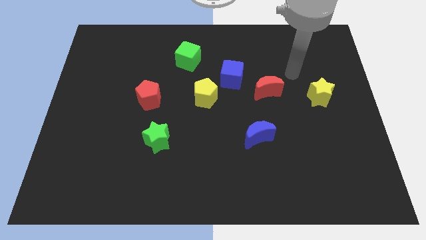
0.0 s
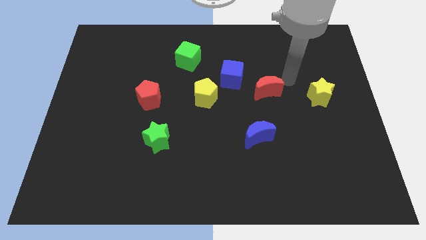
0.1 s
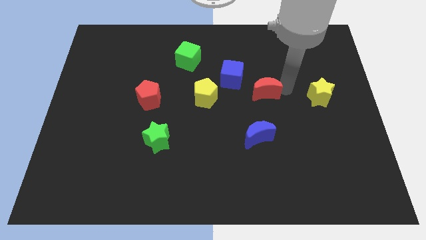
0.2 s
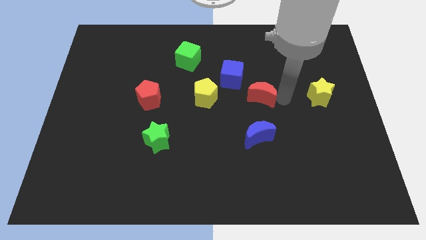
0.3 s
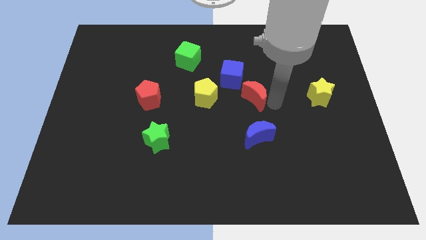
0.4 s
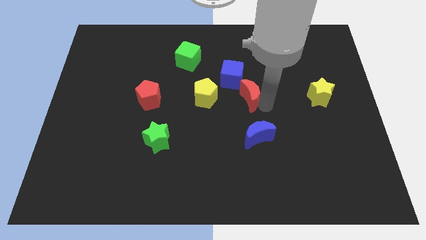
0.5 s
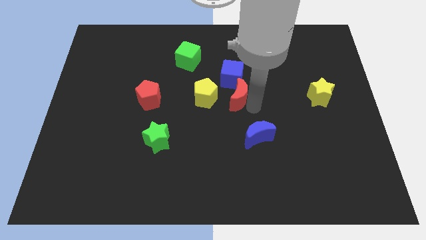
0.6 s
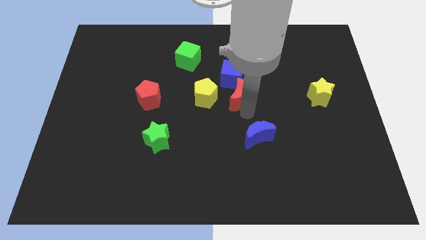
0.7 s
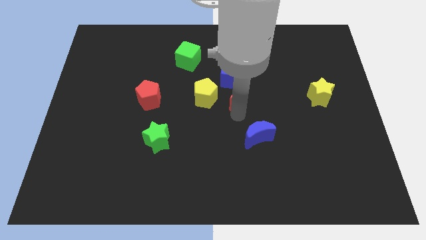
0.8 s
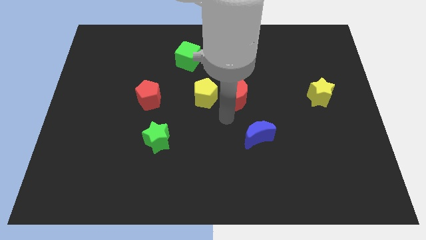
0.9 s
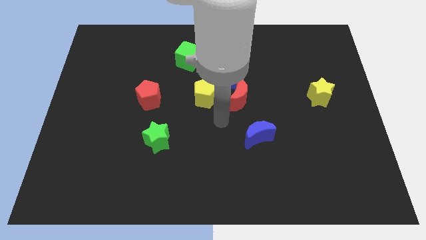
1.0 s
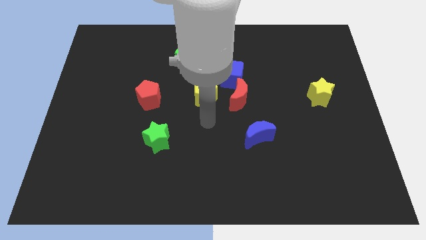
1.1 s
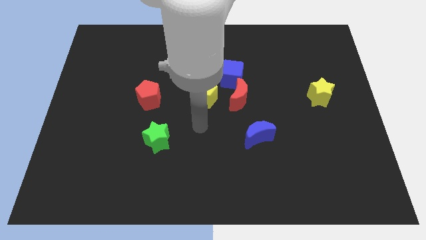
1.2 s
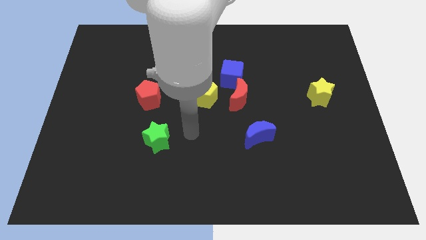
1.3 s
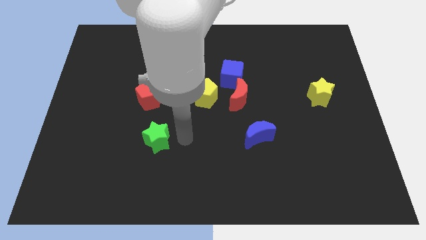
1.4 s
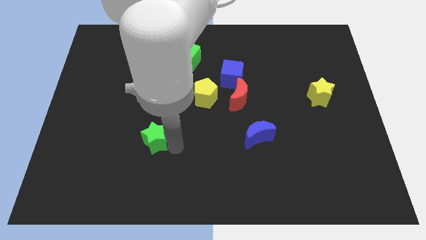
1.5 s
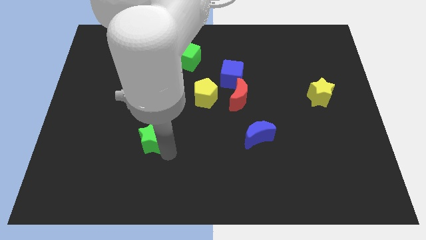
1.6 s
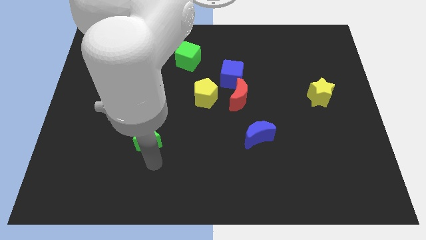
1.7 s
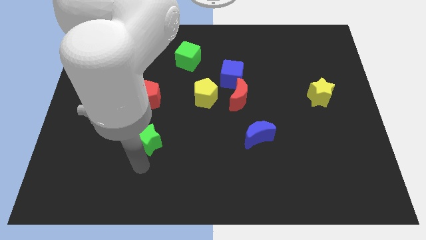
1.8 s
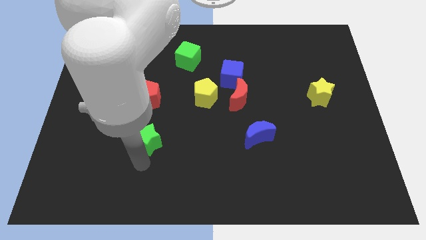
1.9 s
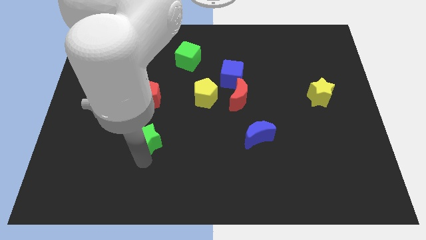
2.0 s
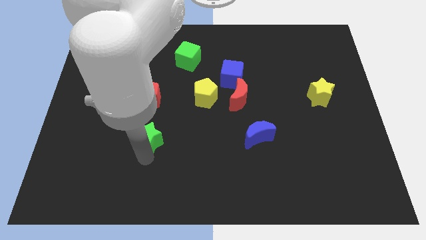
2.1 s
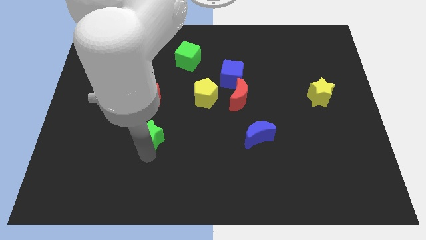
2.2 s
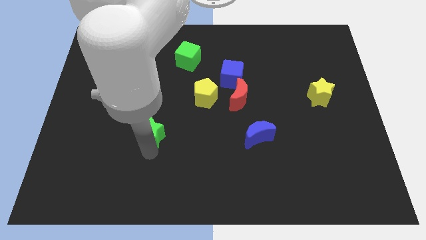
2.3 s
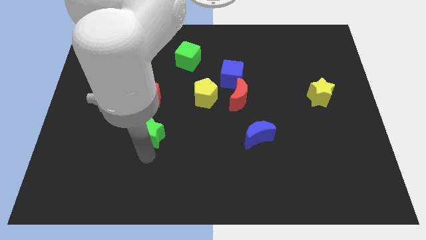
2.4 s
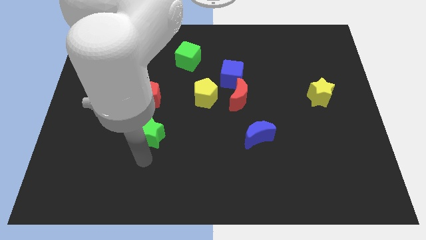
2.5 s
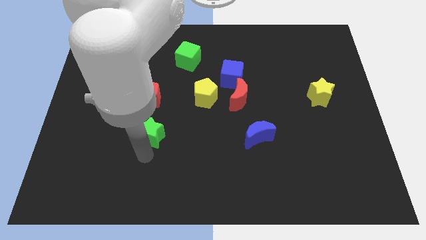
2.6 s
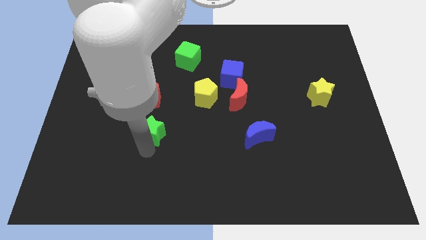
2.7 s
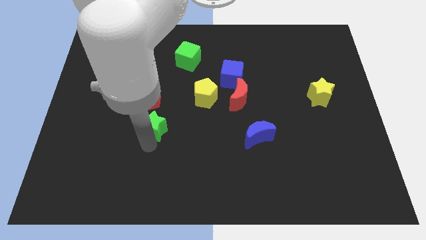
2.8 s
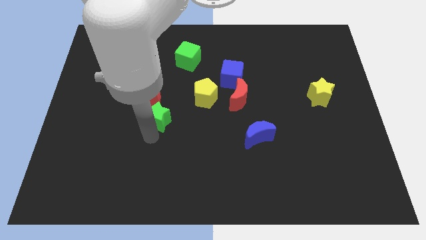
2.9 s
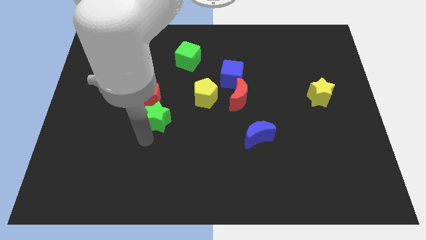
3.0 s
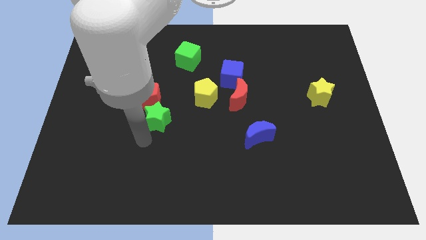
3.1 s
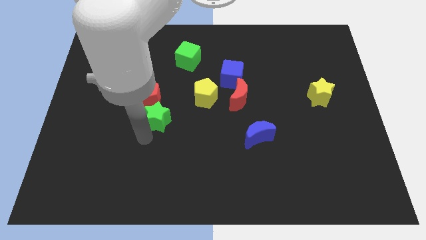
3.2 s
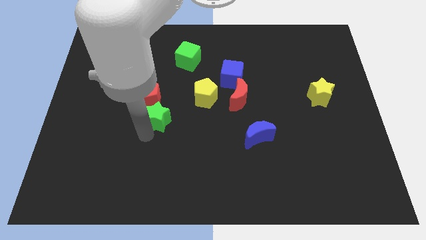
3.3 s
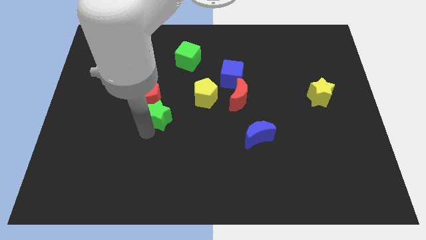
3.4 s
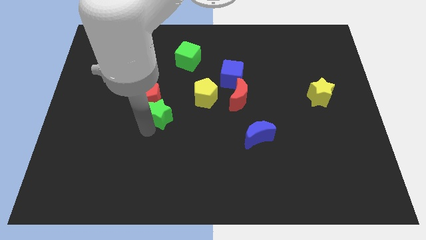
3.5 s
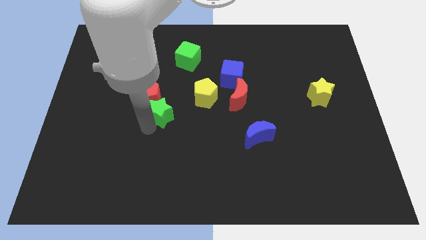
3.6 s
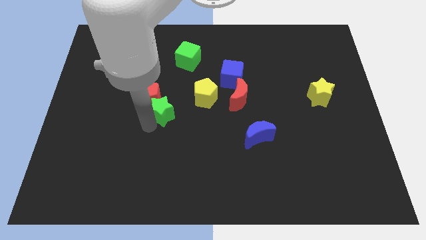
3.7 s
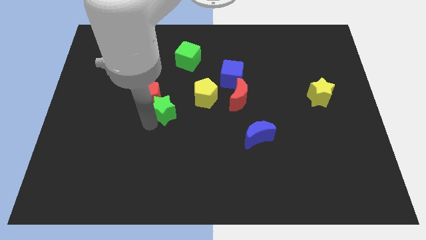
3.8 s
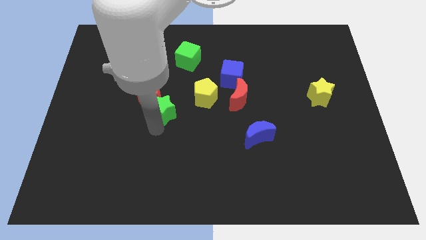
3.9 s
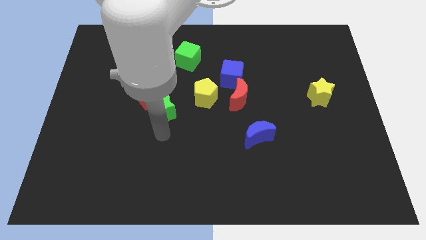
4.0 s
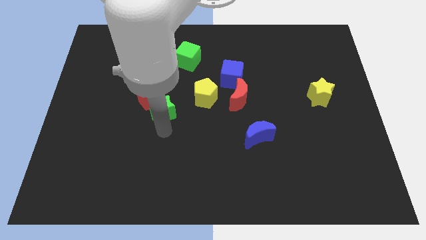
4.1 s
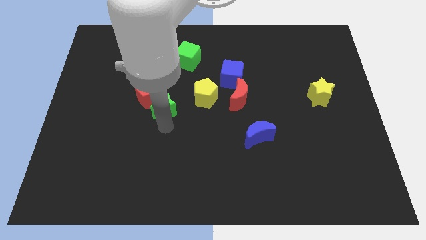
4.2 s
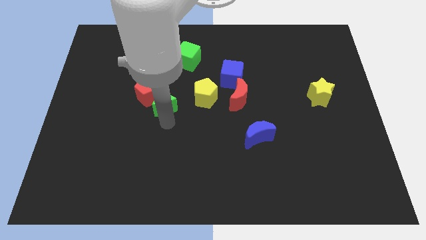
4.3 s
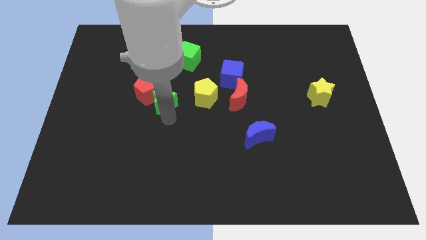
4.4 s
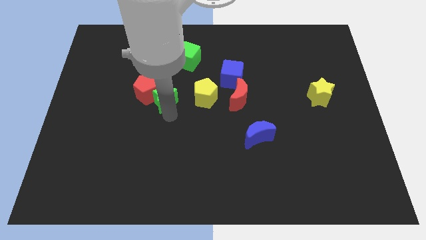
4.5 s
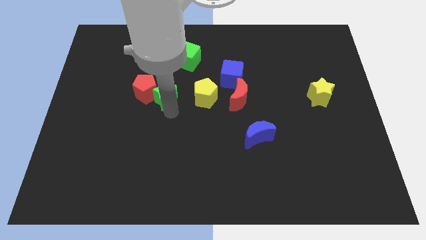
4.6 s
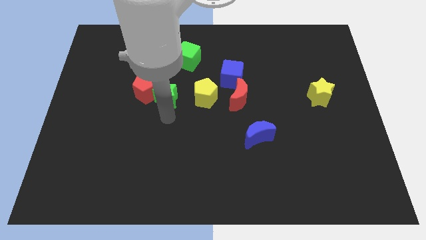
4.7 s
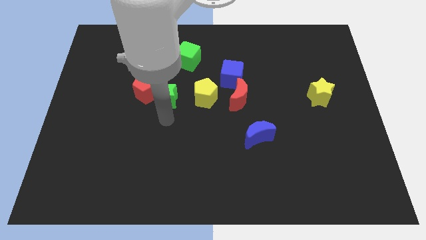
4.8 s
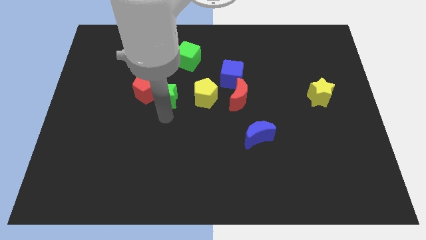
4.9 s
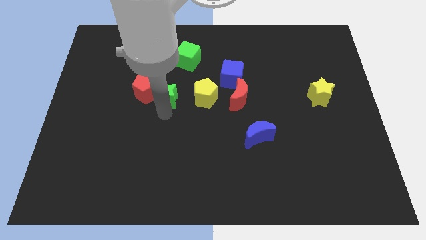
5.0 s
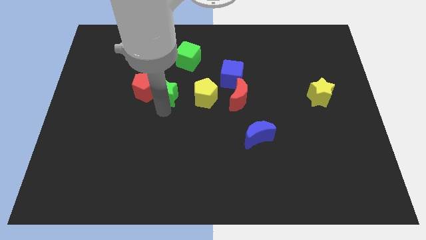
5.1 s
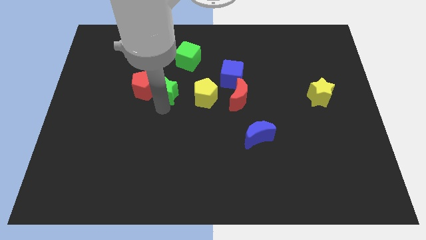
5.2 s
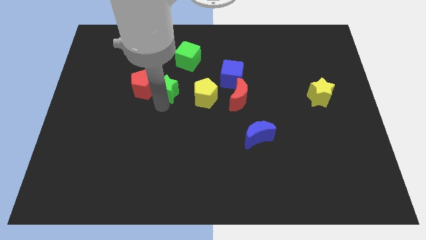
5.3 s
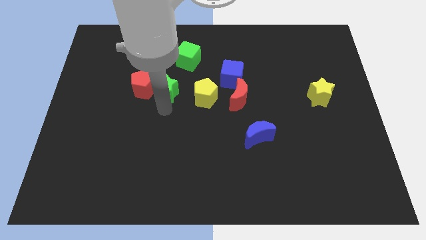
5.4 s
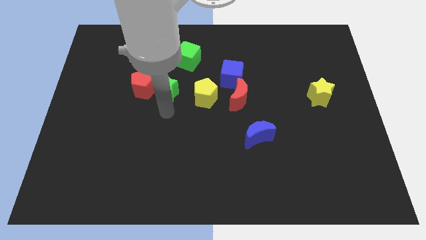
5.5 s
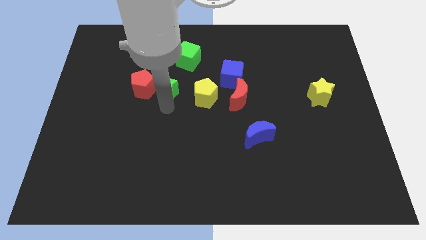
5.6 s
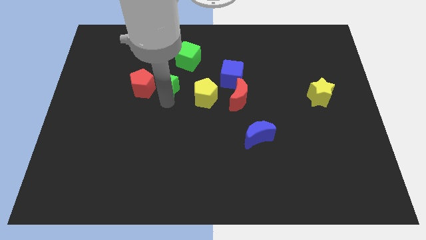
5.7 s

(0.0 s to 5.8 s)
slide the green star to the bottom left of the green cube
